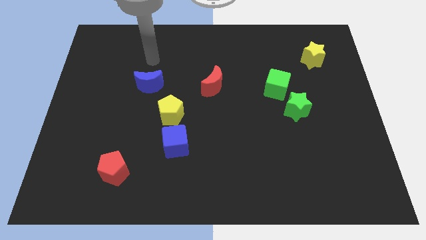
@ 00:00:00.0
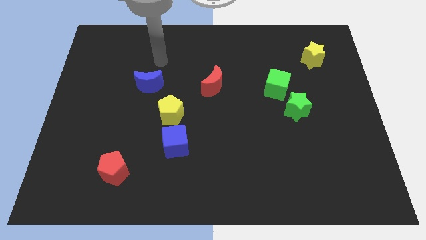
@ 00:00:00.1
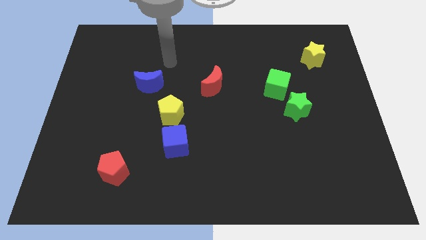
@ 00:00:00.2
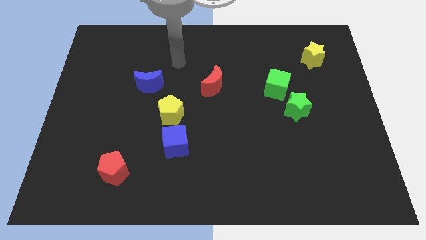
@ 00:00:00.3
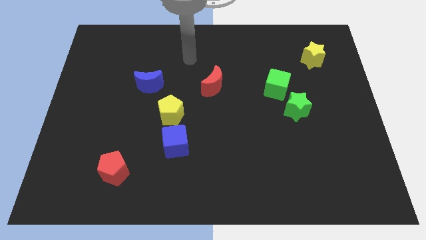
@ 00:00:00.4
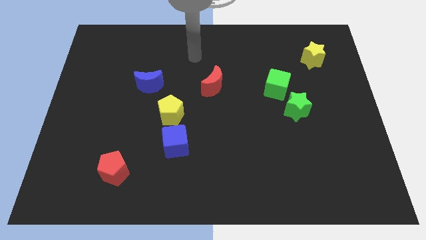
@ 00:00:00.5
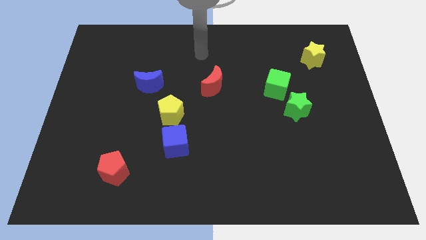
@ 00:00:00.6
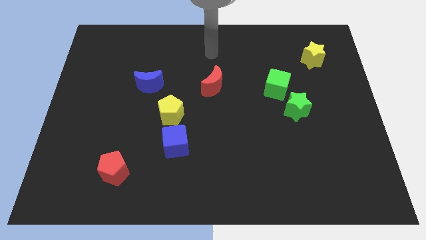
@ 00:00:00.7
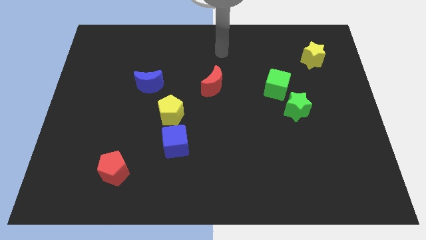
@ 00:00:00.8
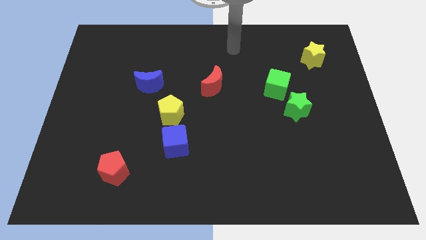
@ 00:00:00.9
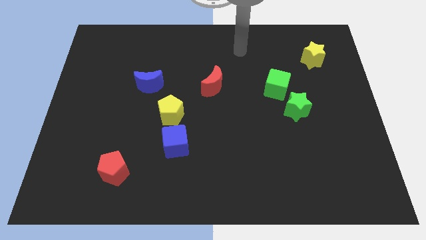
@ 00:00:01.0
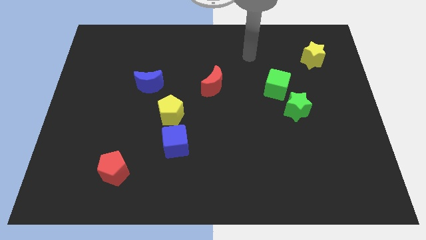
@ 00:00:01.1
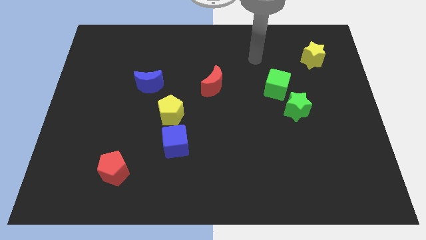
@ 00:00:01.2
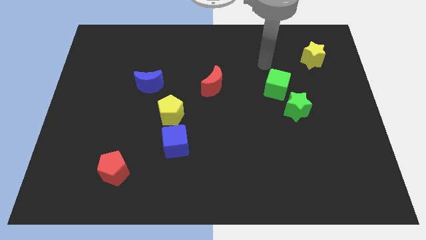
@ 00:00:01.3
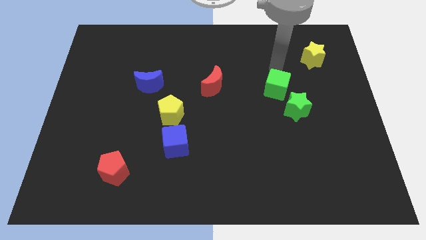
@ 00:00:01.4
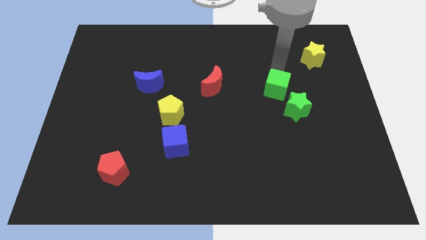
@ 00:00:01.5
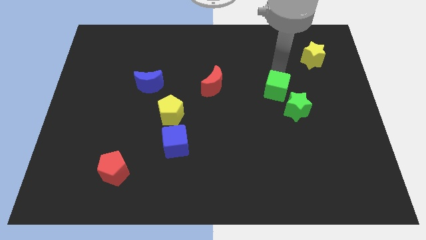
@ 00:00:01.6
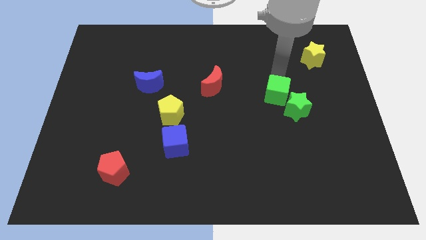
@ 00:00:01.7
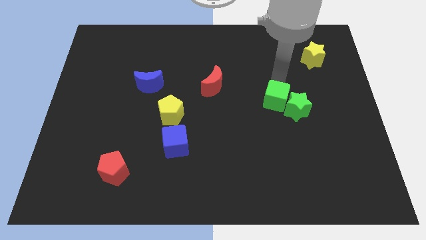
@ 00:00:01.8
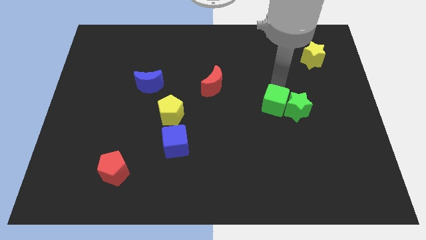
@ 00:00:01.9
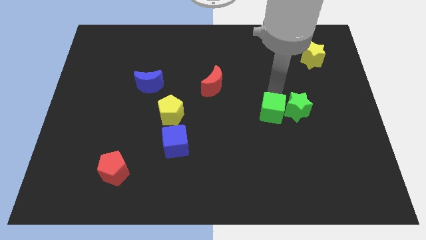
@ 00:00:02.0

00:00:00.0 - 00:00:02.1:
slightly push the green cube down

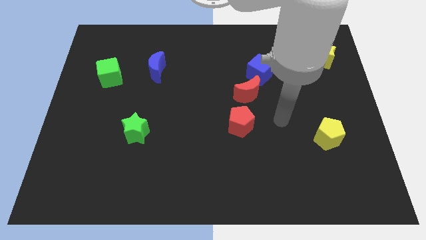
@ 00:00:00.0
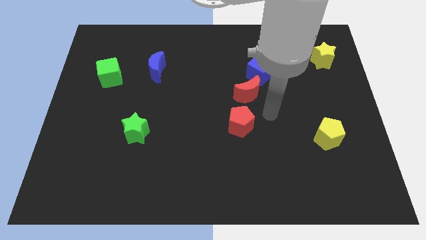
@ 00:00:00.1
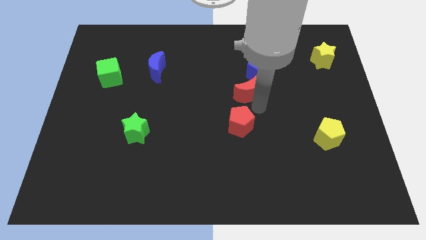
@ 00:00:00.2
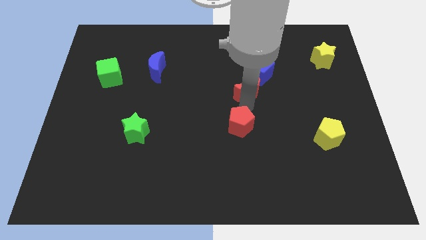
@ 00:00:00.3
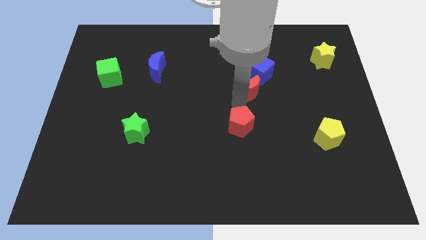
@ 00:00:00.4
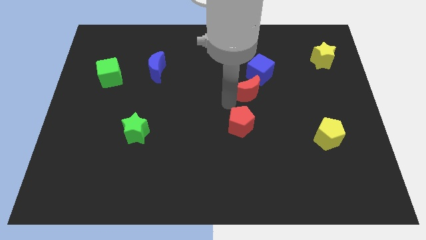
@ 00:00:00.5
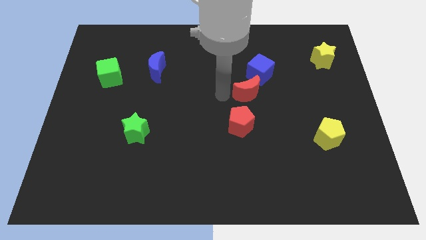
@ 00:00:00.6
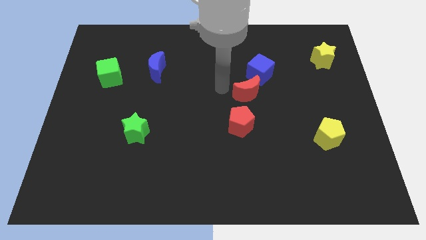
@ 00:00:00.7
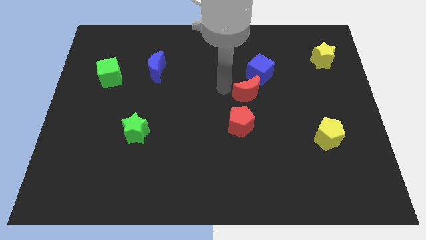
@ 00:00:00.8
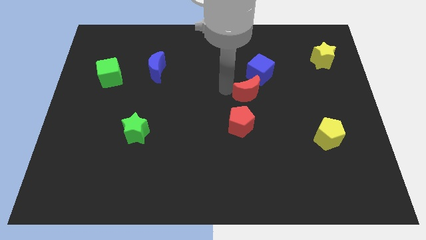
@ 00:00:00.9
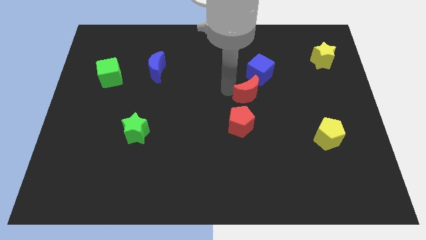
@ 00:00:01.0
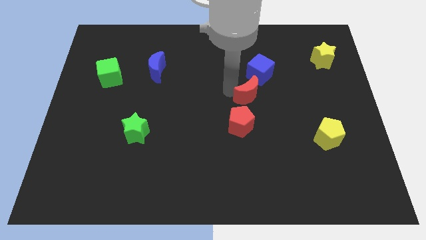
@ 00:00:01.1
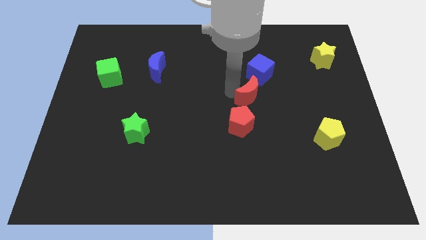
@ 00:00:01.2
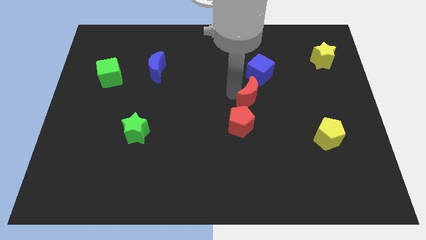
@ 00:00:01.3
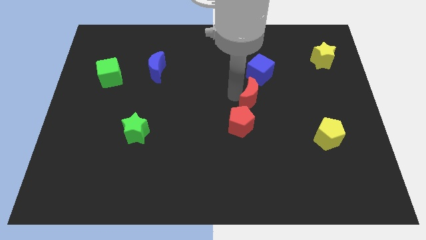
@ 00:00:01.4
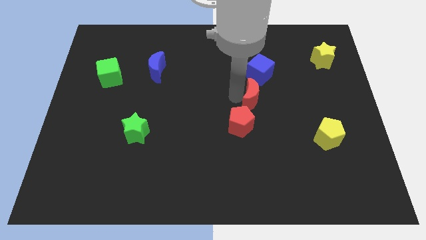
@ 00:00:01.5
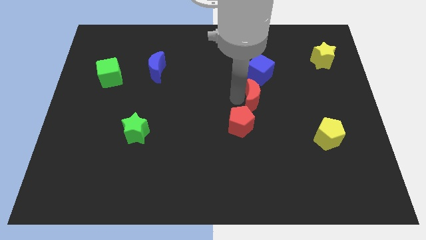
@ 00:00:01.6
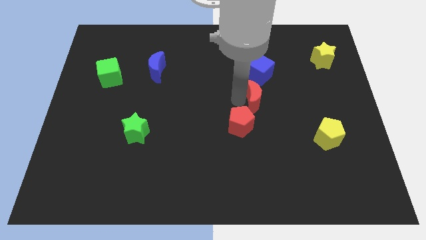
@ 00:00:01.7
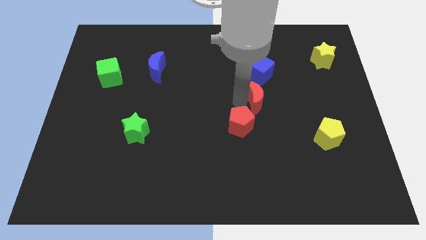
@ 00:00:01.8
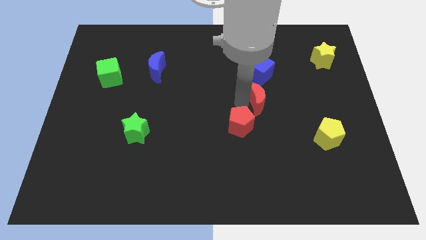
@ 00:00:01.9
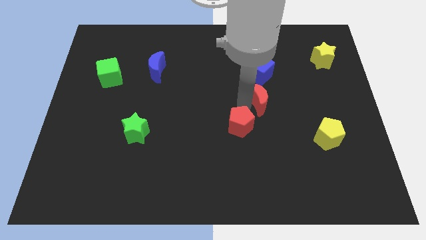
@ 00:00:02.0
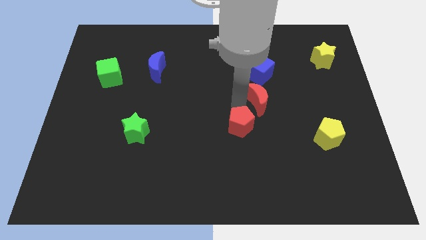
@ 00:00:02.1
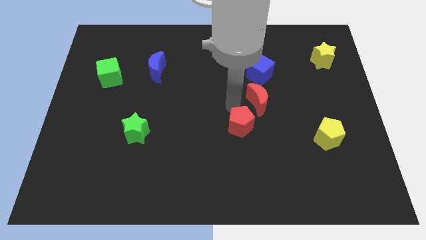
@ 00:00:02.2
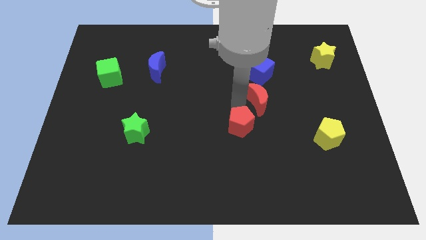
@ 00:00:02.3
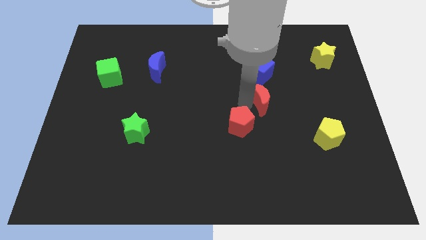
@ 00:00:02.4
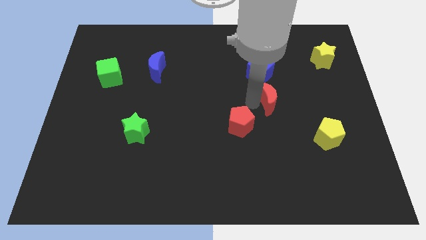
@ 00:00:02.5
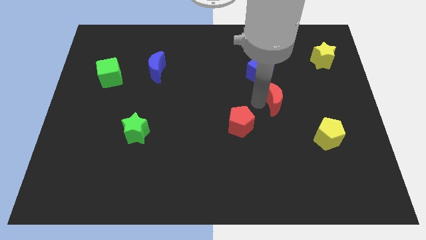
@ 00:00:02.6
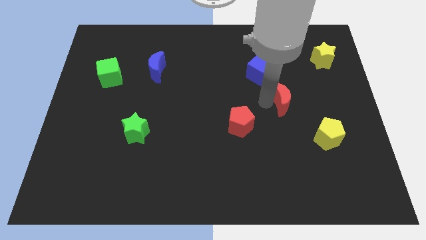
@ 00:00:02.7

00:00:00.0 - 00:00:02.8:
slightly push the red moon to the right

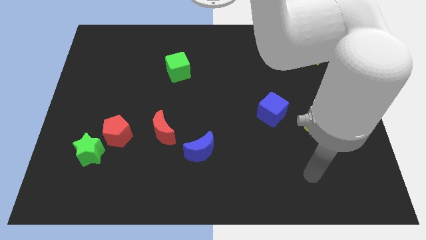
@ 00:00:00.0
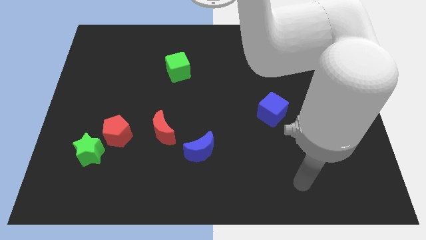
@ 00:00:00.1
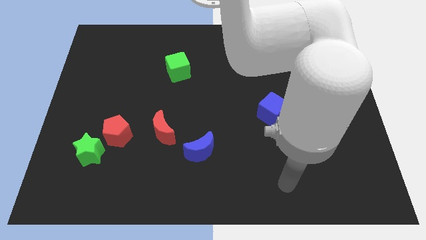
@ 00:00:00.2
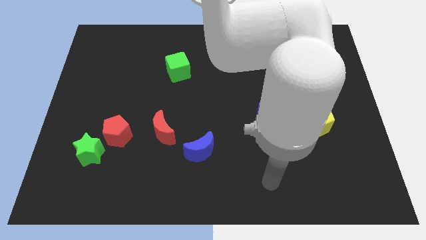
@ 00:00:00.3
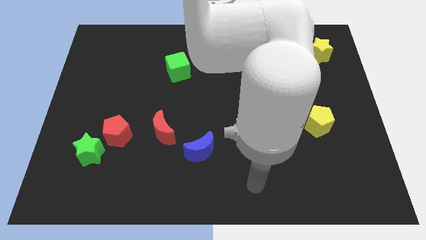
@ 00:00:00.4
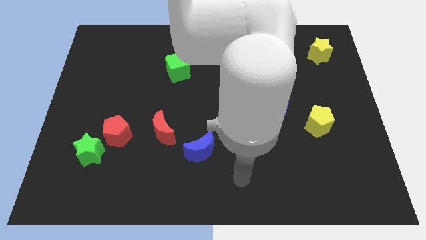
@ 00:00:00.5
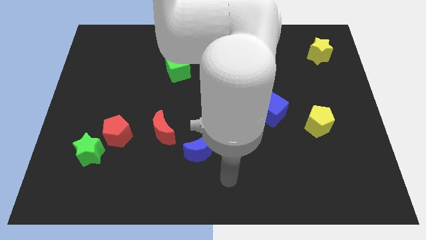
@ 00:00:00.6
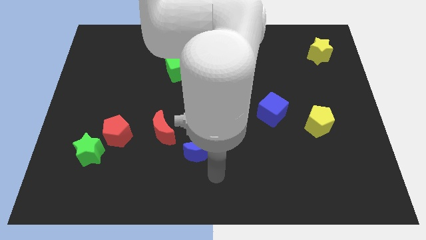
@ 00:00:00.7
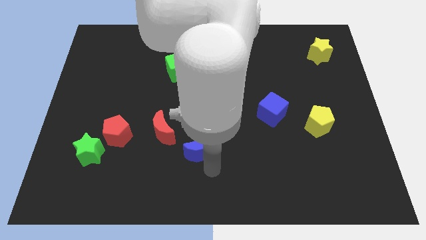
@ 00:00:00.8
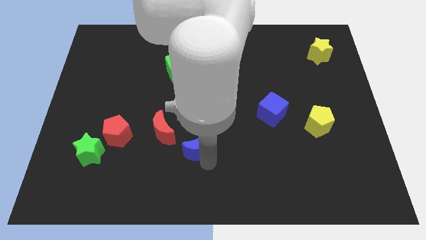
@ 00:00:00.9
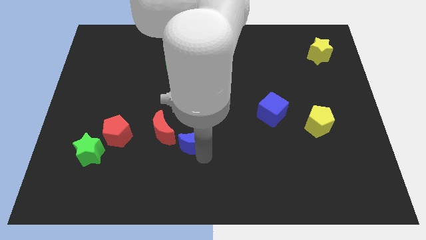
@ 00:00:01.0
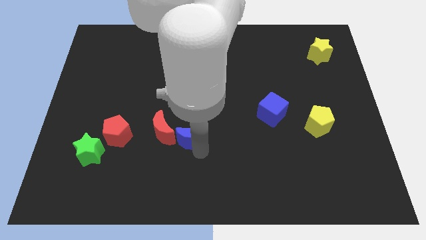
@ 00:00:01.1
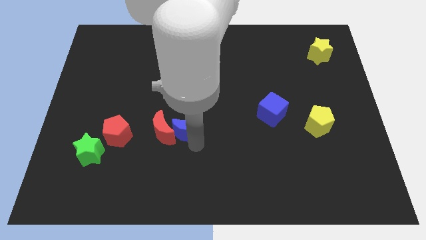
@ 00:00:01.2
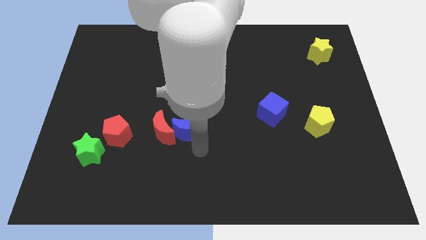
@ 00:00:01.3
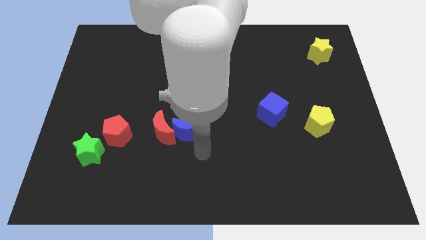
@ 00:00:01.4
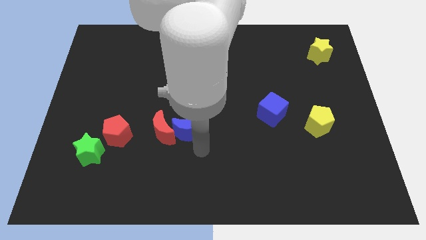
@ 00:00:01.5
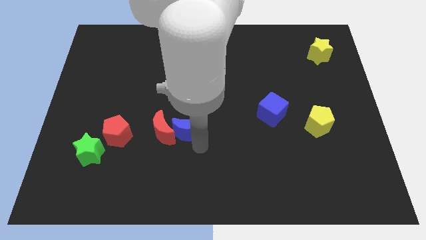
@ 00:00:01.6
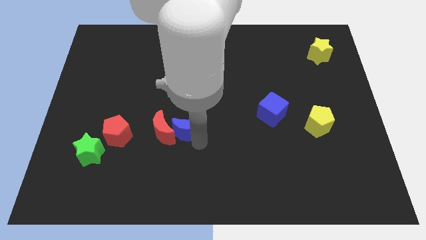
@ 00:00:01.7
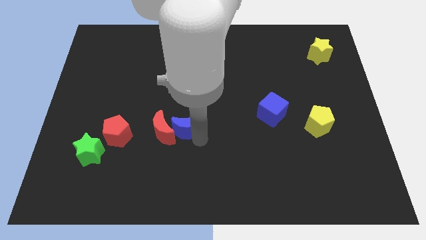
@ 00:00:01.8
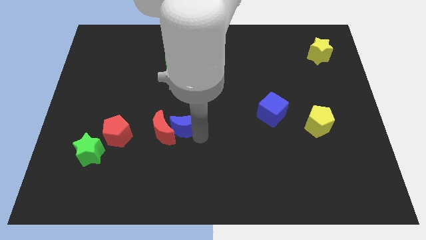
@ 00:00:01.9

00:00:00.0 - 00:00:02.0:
move the blue moon upwards and then to the left slightly

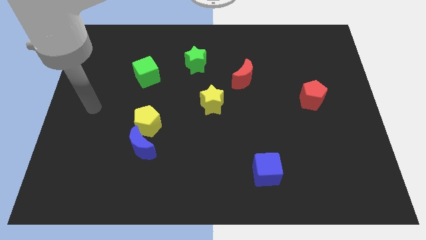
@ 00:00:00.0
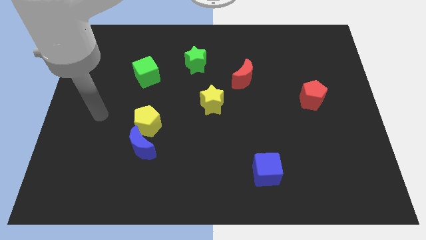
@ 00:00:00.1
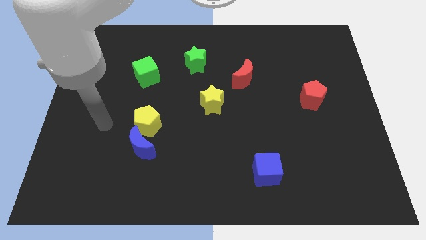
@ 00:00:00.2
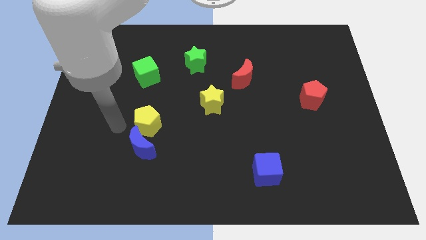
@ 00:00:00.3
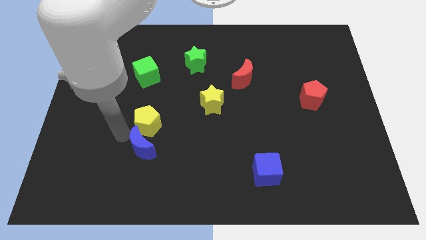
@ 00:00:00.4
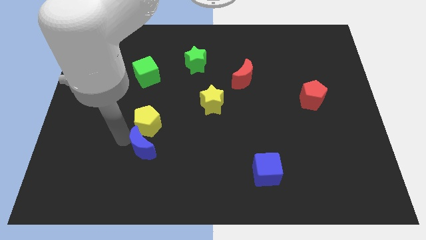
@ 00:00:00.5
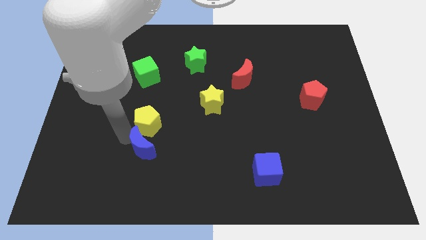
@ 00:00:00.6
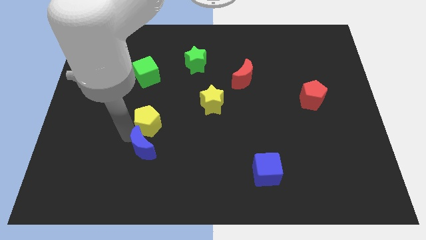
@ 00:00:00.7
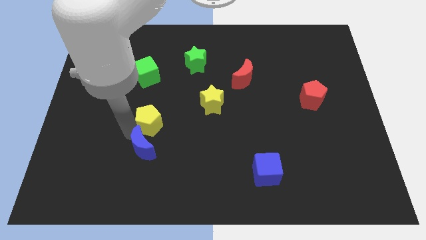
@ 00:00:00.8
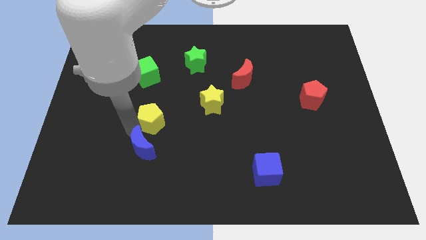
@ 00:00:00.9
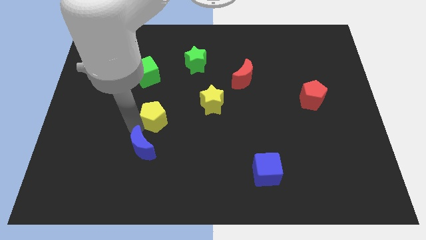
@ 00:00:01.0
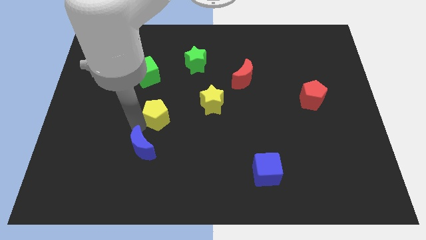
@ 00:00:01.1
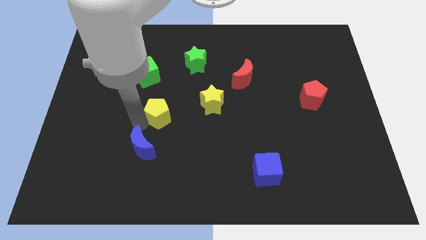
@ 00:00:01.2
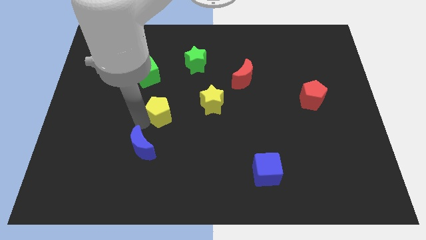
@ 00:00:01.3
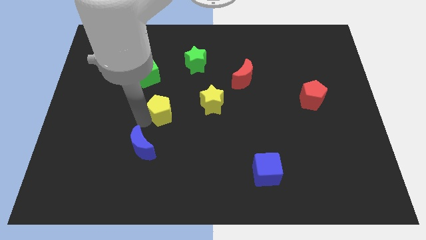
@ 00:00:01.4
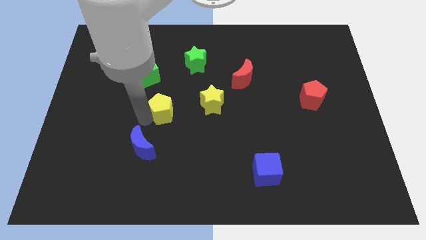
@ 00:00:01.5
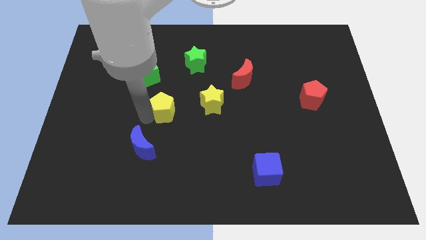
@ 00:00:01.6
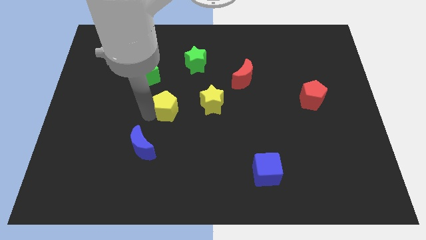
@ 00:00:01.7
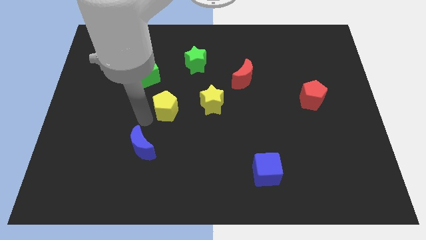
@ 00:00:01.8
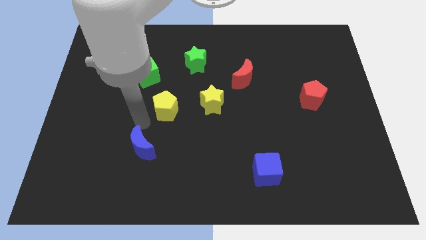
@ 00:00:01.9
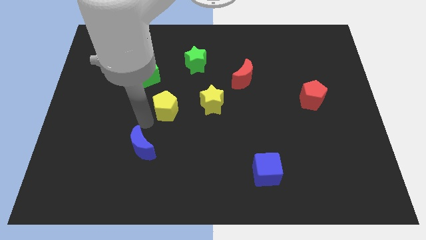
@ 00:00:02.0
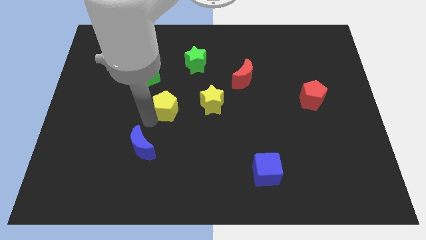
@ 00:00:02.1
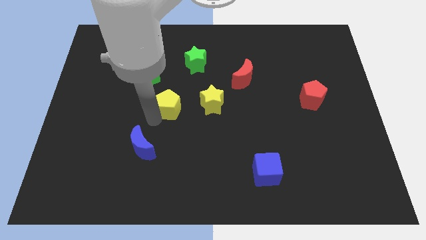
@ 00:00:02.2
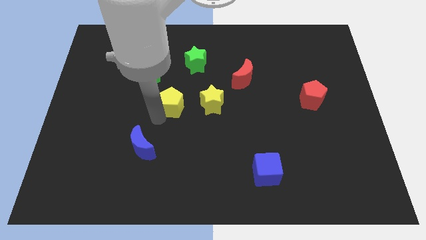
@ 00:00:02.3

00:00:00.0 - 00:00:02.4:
slightly push the yellow pentagon upwards and right
